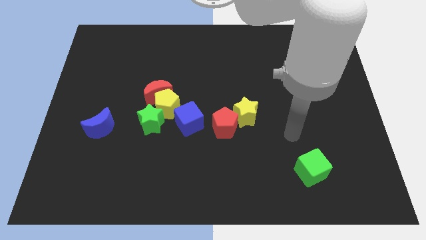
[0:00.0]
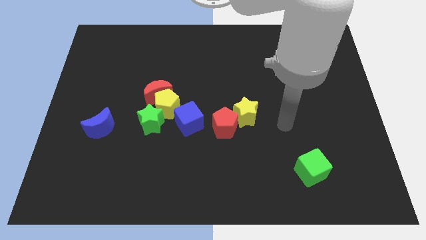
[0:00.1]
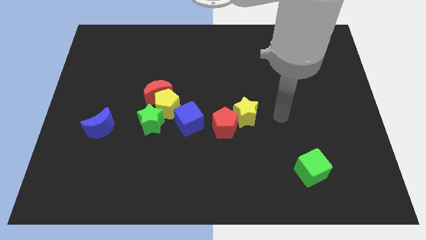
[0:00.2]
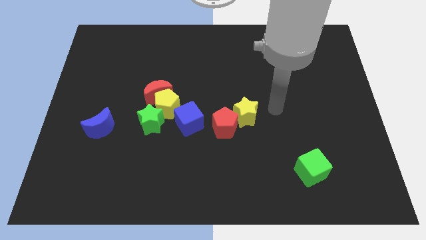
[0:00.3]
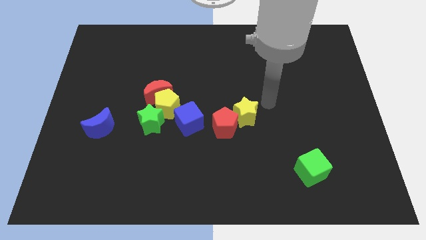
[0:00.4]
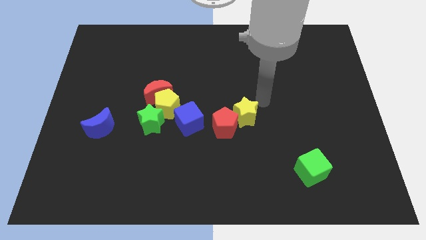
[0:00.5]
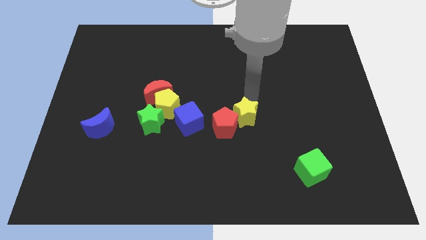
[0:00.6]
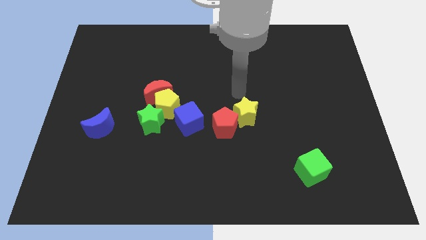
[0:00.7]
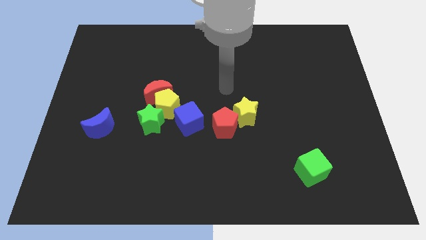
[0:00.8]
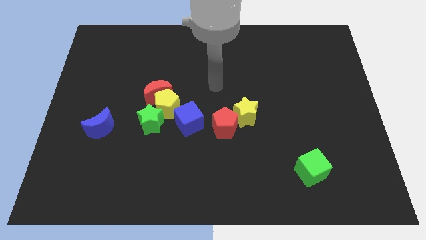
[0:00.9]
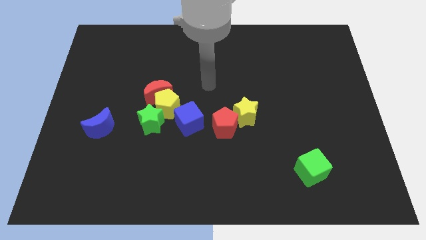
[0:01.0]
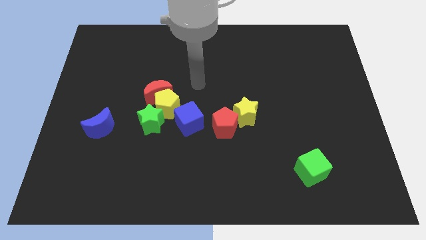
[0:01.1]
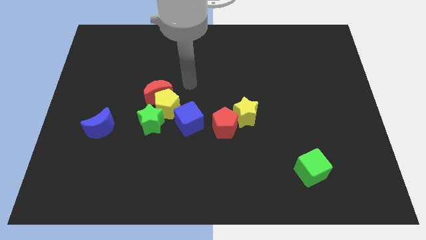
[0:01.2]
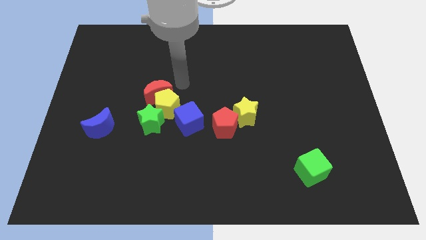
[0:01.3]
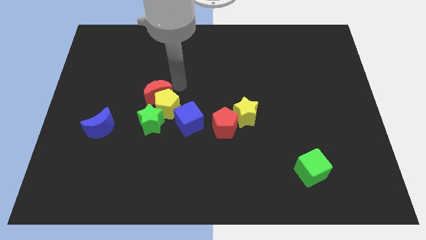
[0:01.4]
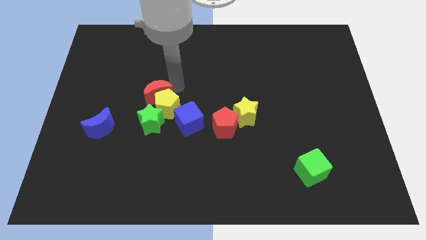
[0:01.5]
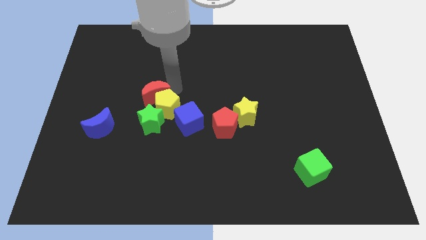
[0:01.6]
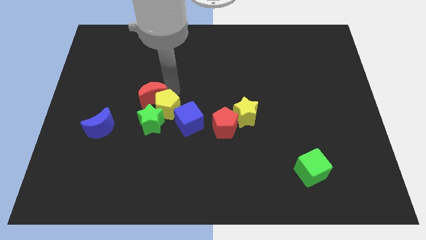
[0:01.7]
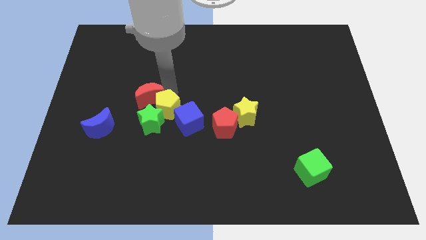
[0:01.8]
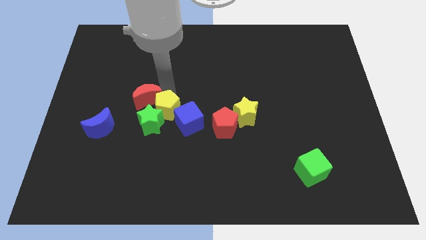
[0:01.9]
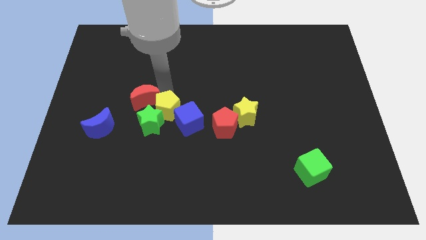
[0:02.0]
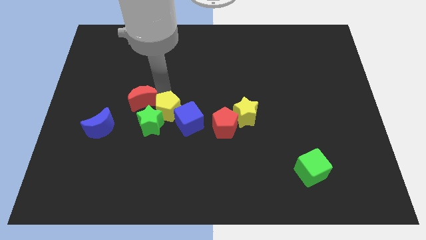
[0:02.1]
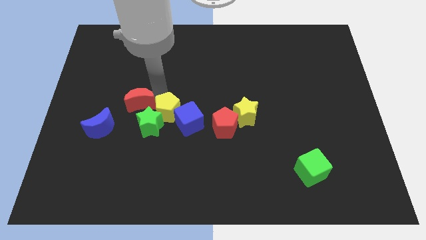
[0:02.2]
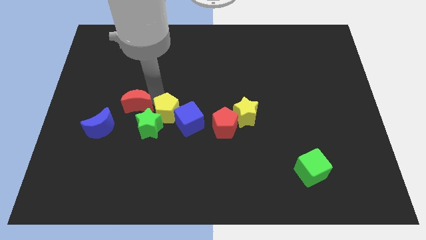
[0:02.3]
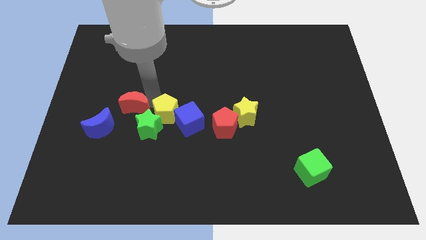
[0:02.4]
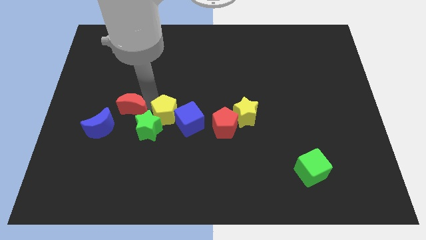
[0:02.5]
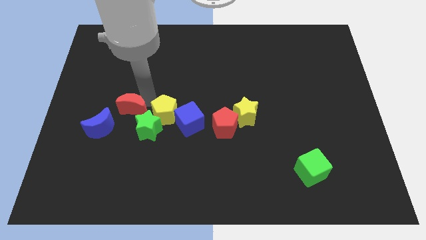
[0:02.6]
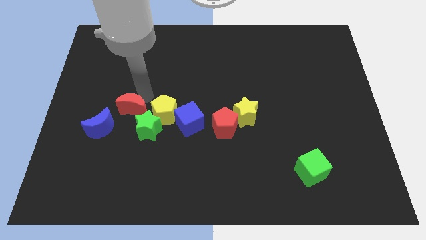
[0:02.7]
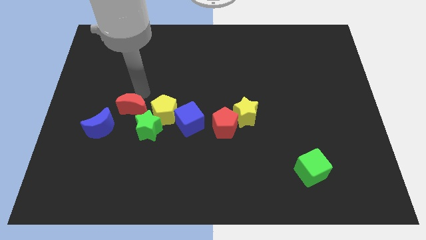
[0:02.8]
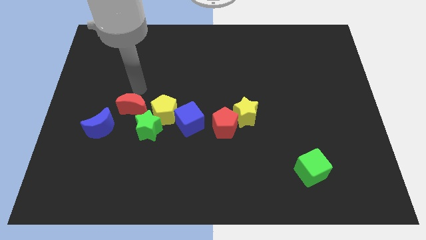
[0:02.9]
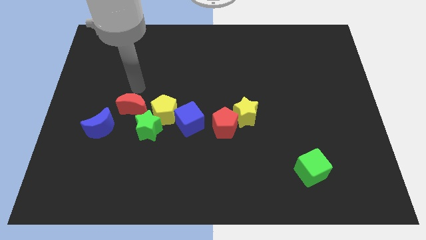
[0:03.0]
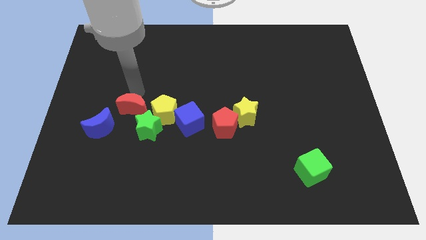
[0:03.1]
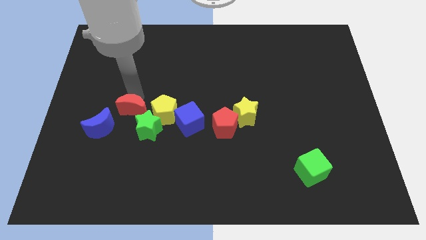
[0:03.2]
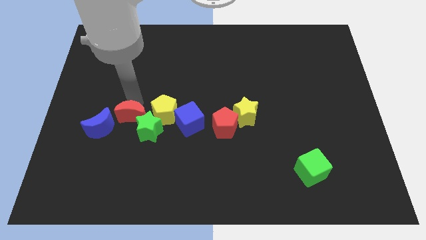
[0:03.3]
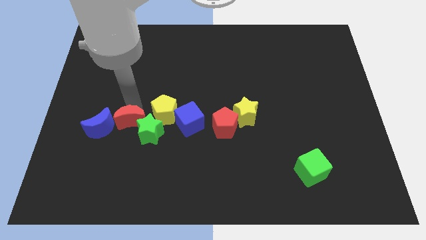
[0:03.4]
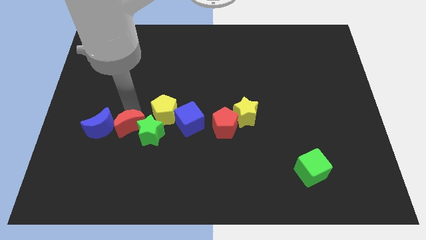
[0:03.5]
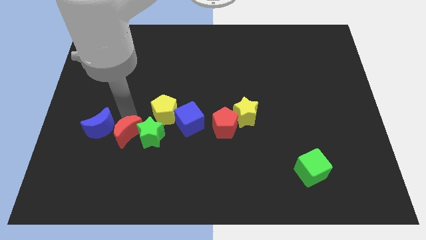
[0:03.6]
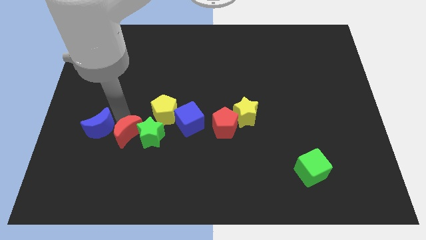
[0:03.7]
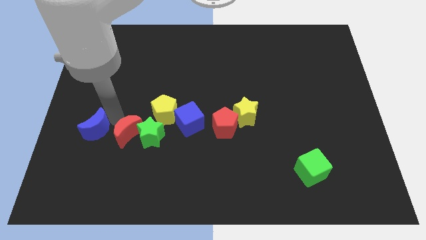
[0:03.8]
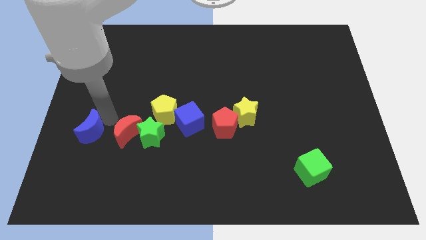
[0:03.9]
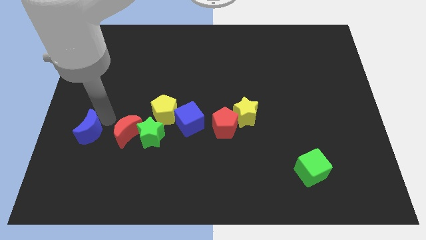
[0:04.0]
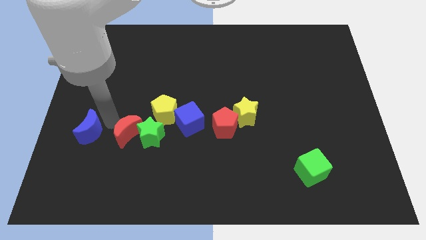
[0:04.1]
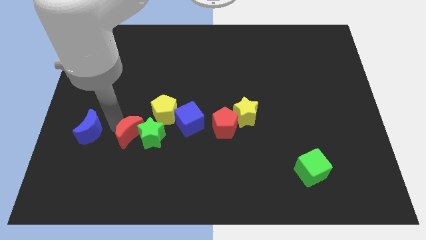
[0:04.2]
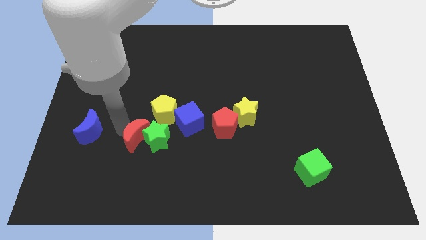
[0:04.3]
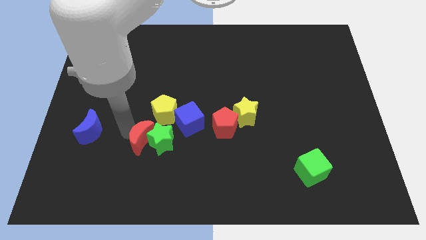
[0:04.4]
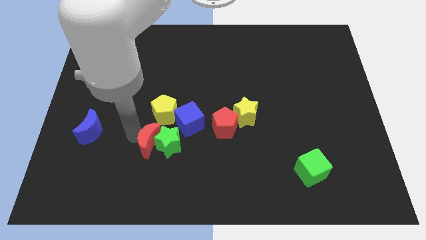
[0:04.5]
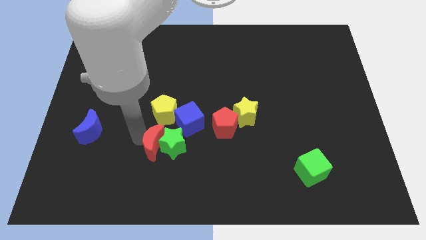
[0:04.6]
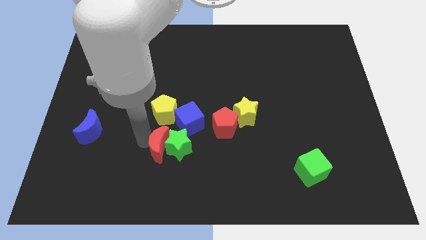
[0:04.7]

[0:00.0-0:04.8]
slightly push the red moon downwards and then right

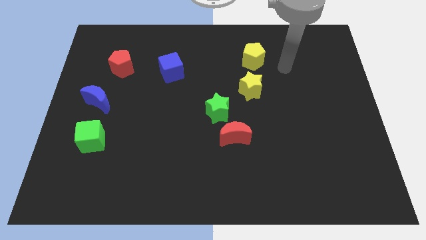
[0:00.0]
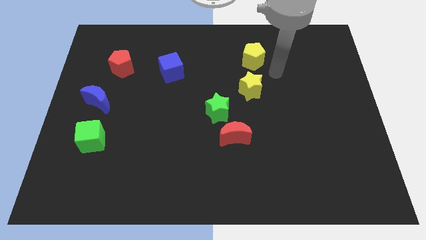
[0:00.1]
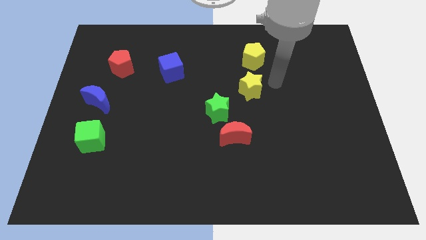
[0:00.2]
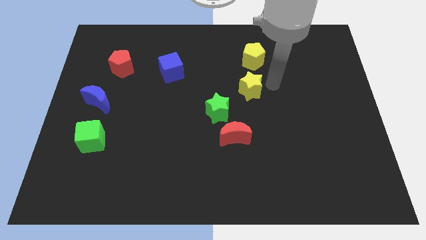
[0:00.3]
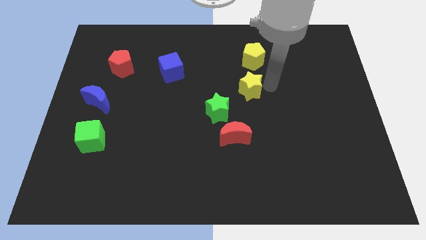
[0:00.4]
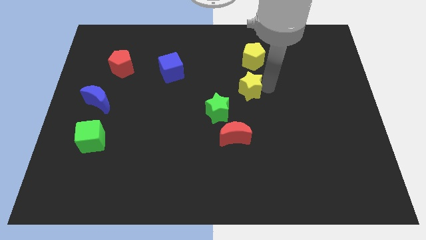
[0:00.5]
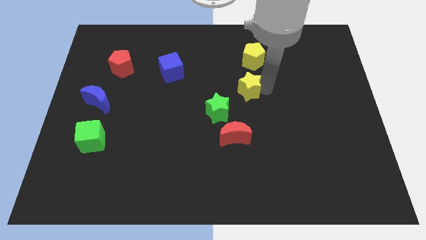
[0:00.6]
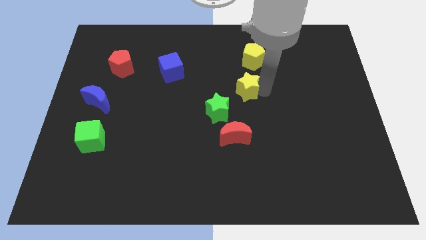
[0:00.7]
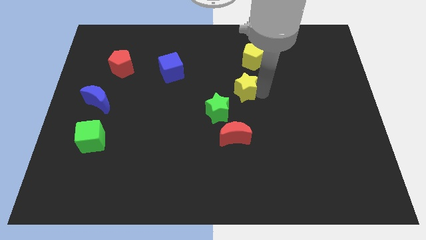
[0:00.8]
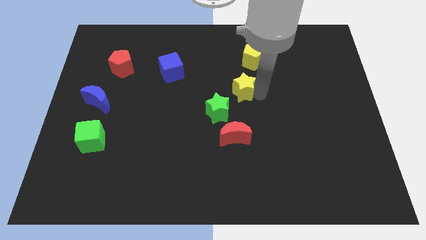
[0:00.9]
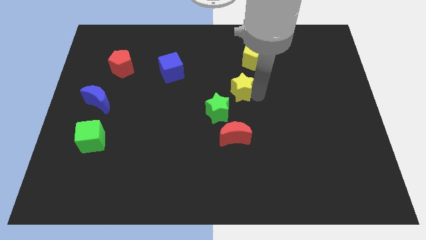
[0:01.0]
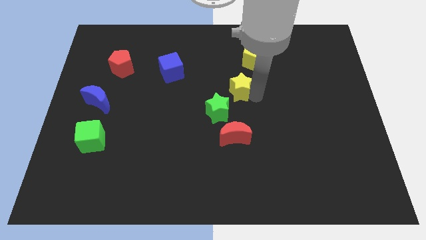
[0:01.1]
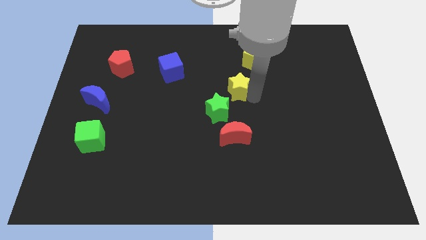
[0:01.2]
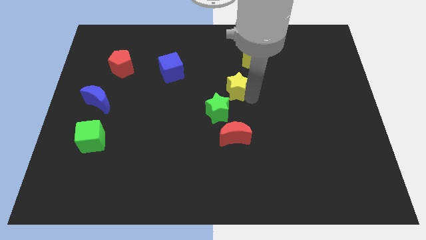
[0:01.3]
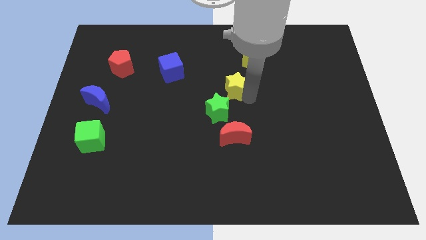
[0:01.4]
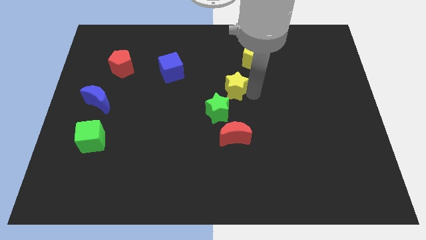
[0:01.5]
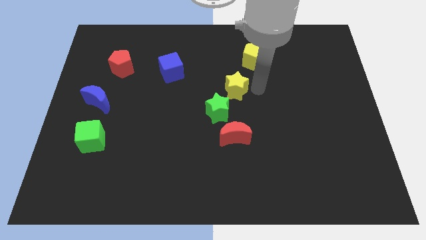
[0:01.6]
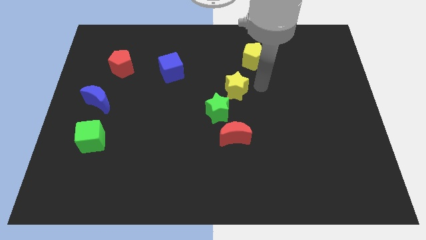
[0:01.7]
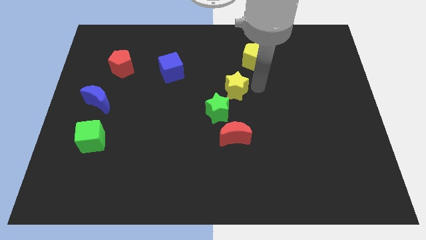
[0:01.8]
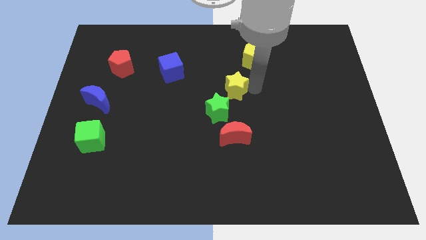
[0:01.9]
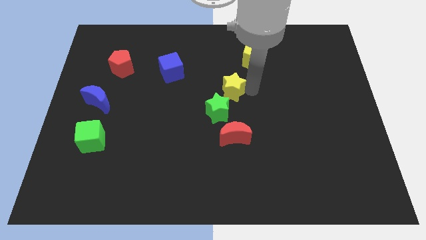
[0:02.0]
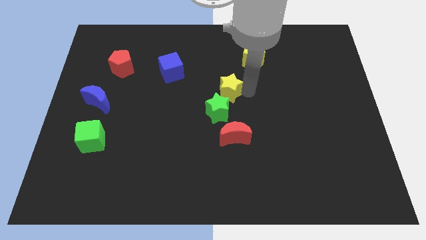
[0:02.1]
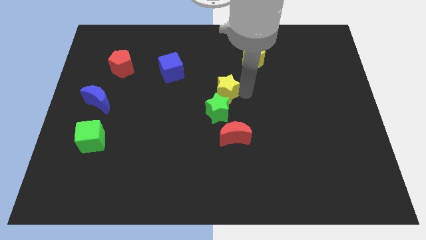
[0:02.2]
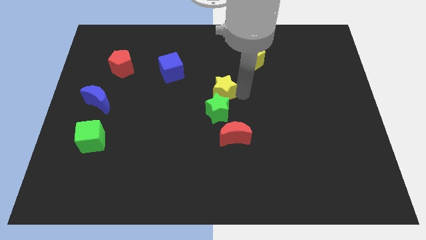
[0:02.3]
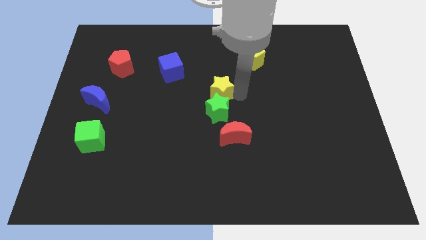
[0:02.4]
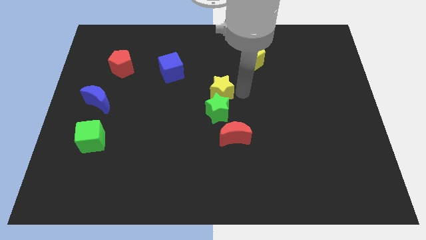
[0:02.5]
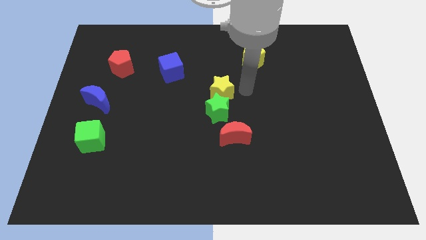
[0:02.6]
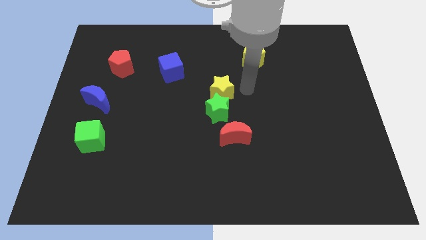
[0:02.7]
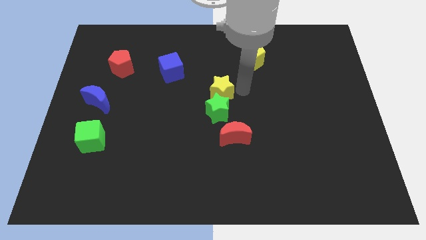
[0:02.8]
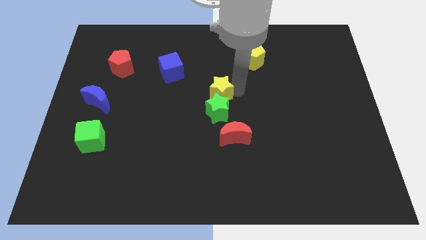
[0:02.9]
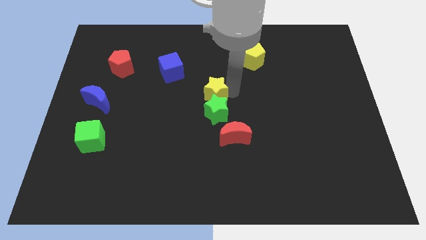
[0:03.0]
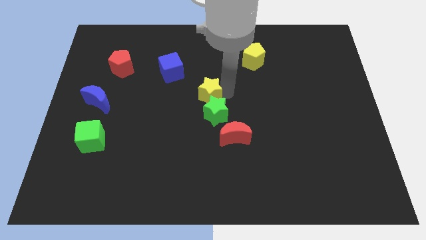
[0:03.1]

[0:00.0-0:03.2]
push the yellow star a little down and then to the left
